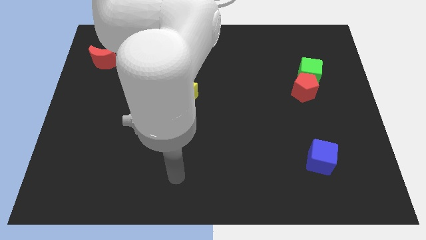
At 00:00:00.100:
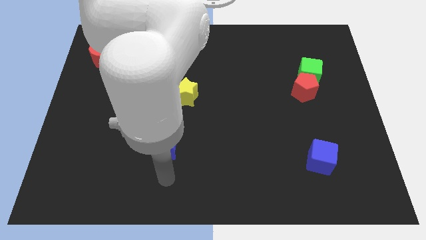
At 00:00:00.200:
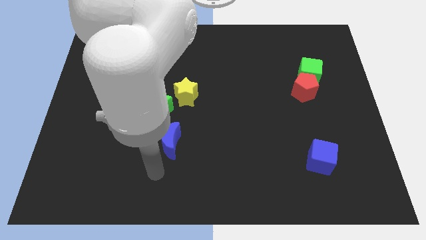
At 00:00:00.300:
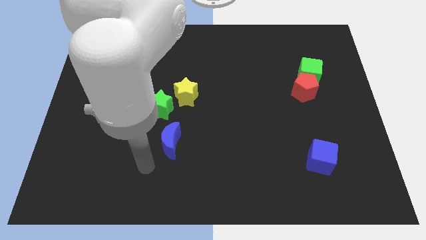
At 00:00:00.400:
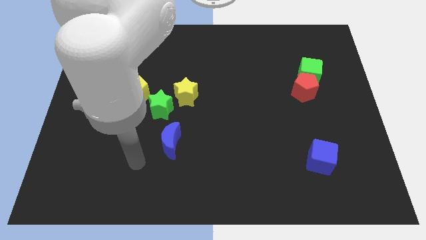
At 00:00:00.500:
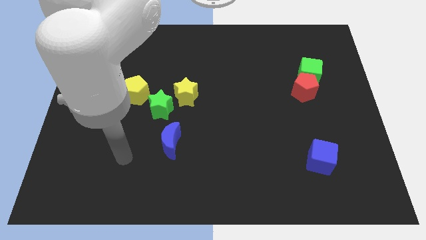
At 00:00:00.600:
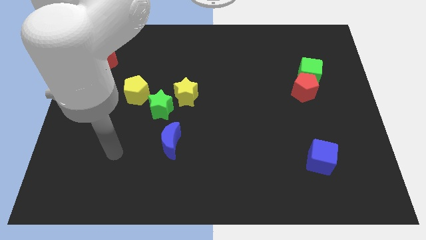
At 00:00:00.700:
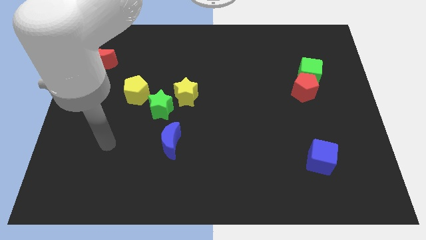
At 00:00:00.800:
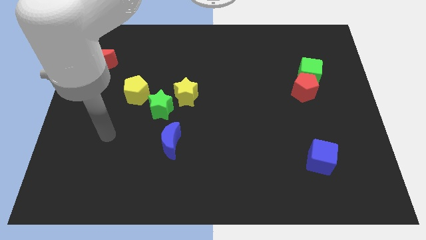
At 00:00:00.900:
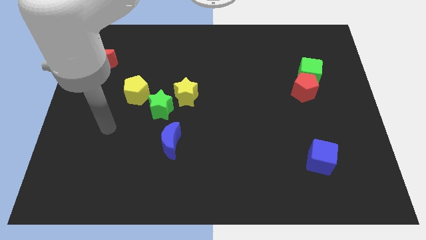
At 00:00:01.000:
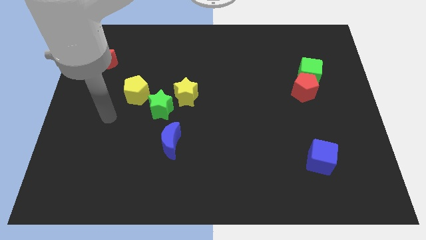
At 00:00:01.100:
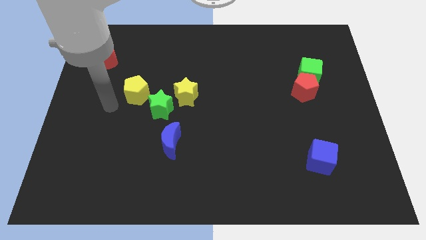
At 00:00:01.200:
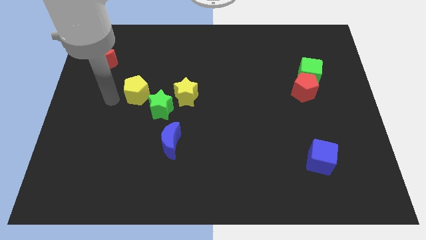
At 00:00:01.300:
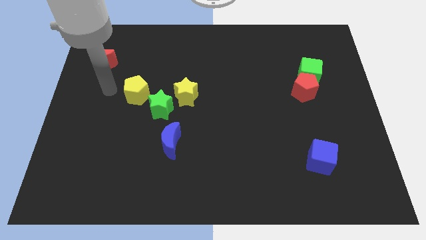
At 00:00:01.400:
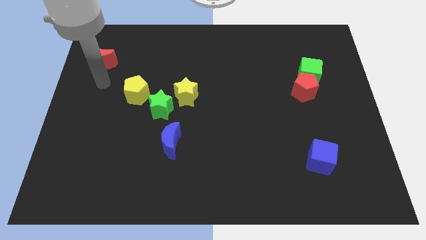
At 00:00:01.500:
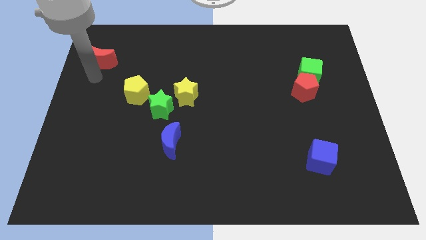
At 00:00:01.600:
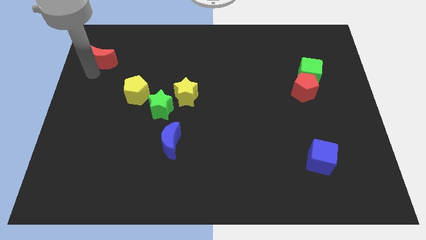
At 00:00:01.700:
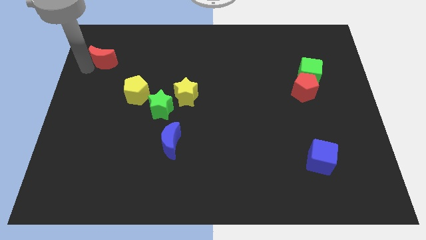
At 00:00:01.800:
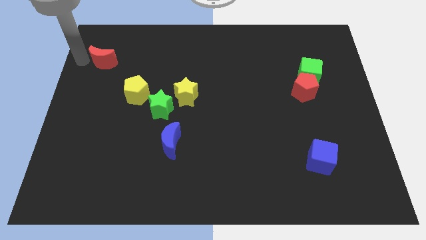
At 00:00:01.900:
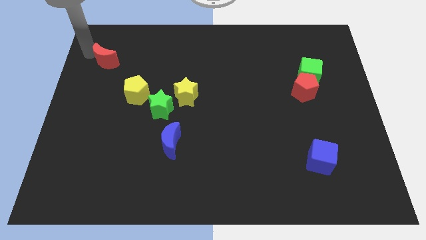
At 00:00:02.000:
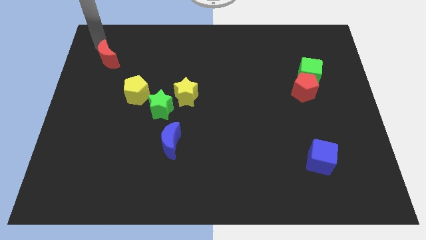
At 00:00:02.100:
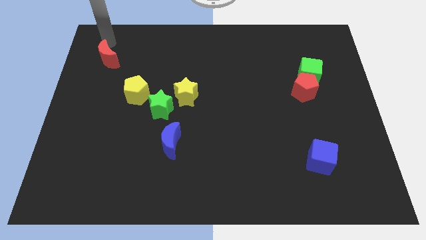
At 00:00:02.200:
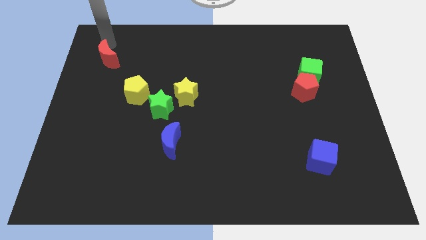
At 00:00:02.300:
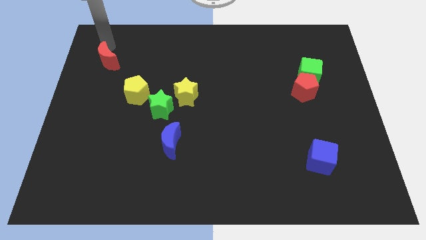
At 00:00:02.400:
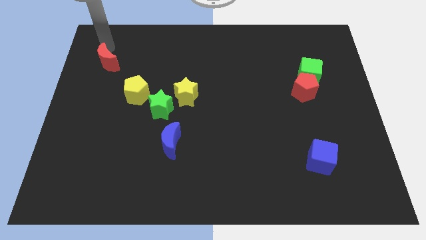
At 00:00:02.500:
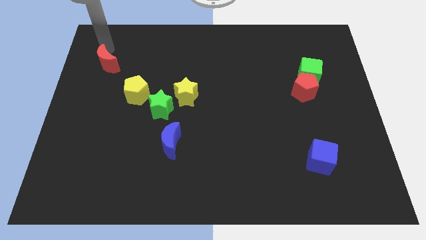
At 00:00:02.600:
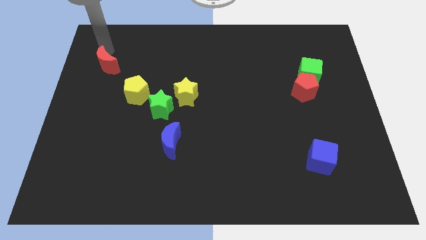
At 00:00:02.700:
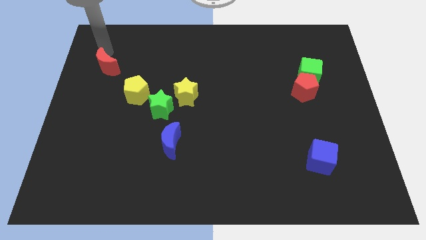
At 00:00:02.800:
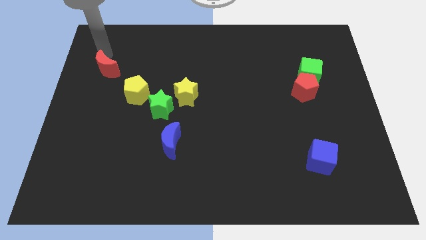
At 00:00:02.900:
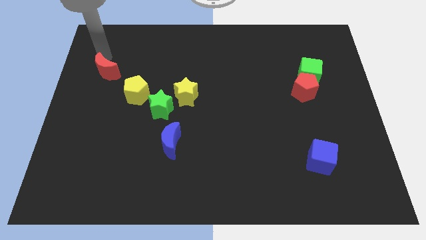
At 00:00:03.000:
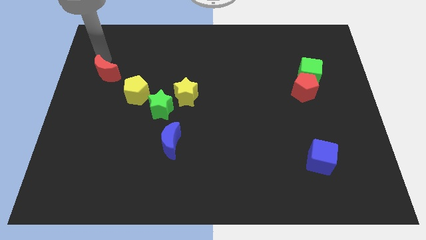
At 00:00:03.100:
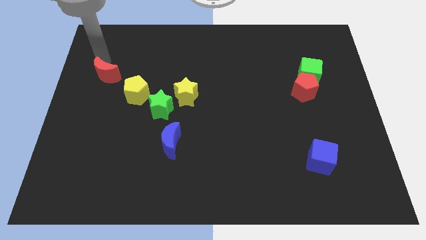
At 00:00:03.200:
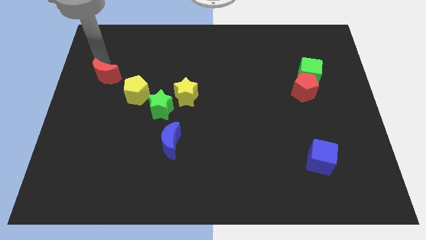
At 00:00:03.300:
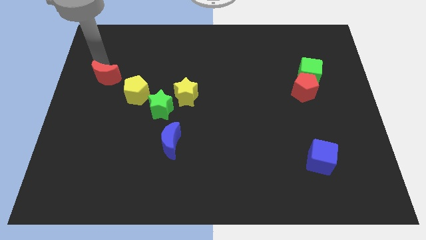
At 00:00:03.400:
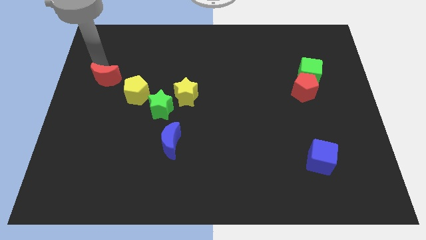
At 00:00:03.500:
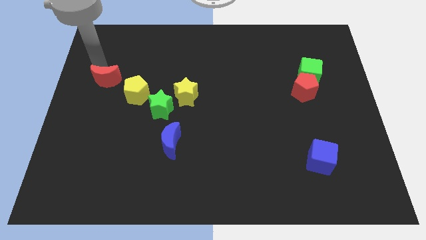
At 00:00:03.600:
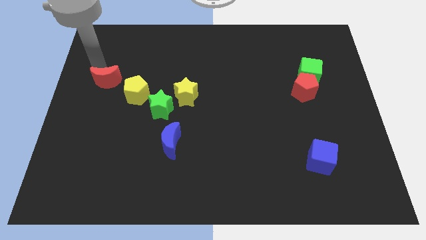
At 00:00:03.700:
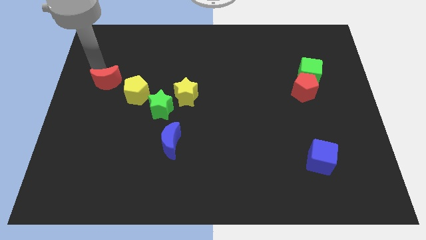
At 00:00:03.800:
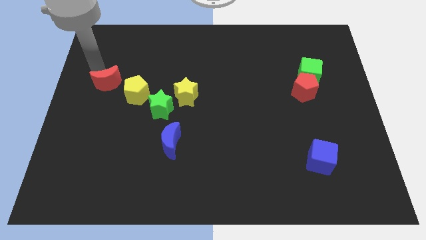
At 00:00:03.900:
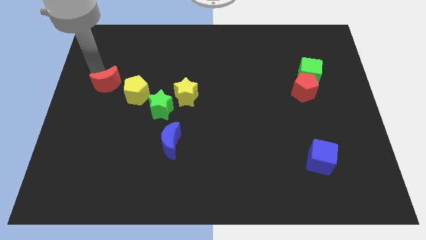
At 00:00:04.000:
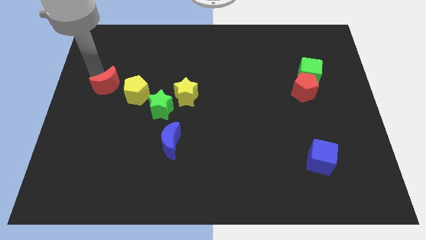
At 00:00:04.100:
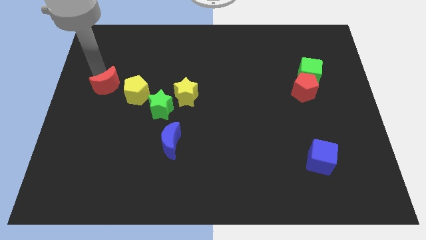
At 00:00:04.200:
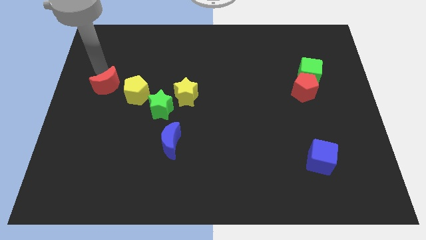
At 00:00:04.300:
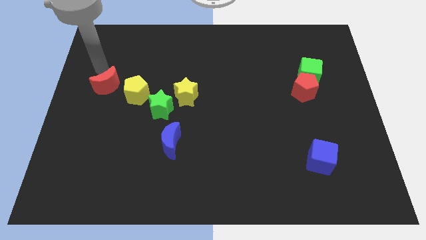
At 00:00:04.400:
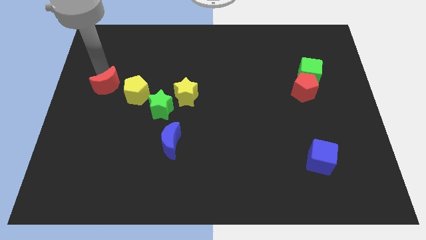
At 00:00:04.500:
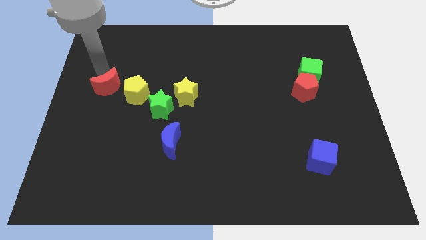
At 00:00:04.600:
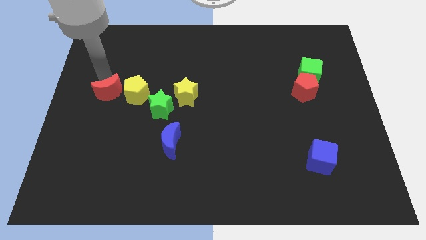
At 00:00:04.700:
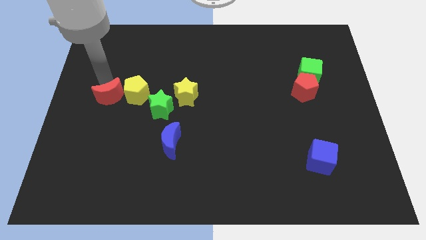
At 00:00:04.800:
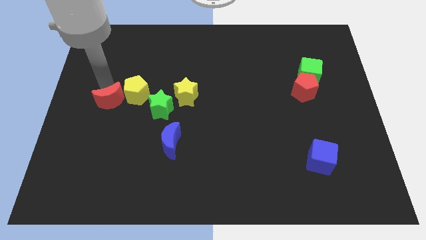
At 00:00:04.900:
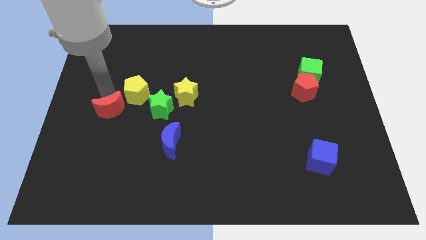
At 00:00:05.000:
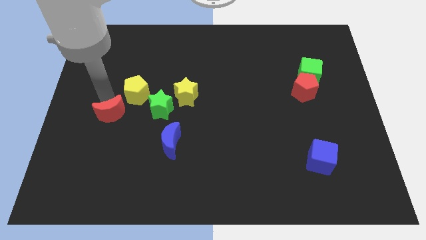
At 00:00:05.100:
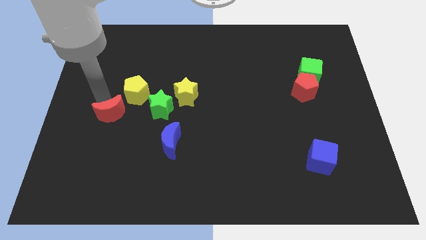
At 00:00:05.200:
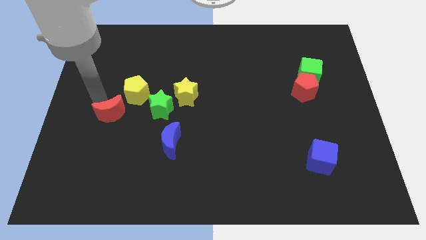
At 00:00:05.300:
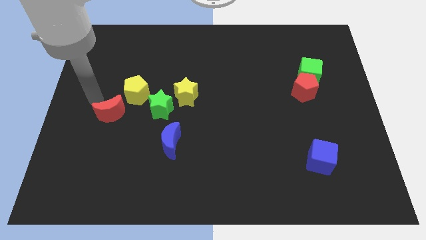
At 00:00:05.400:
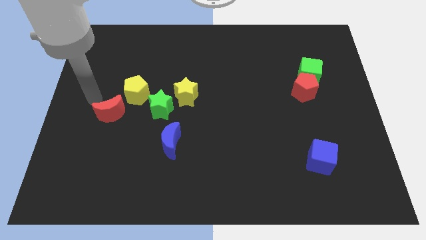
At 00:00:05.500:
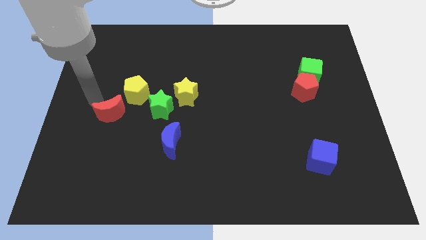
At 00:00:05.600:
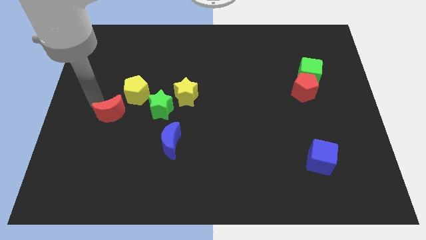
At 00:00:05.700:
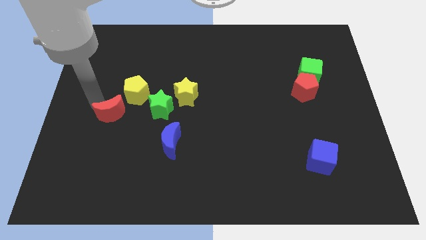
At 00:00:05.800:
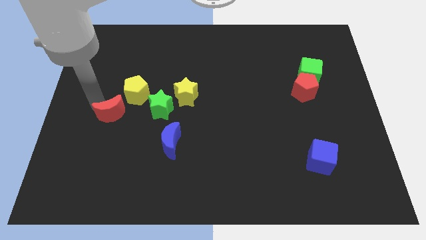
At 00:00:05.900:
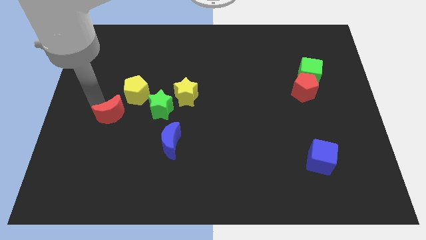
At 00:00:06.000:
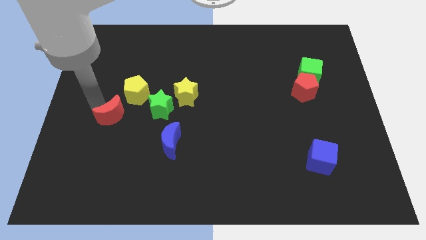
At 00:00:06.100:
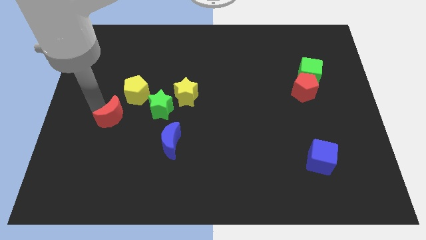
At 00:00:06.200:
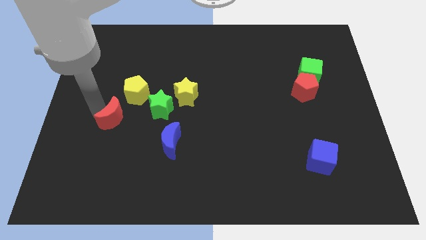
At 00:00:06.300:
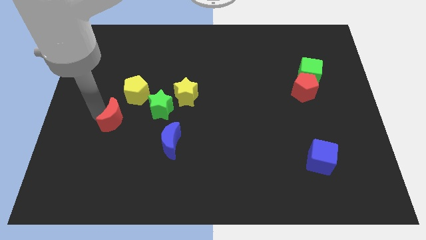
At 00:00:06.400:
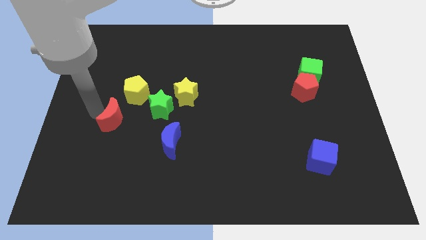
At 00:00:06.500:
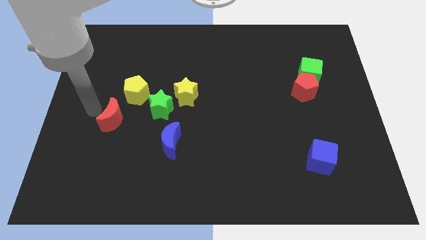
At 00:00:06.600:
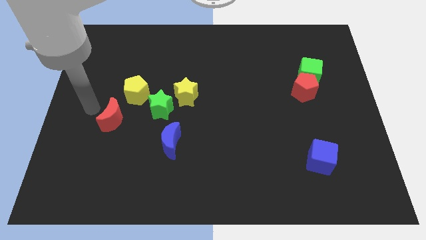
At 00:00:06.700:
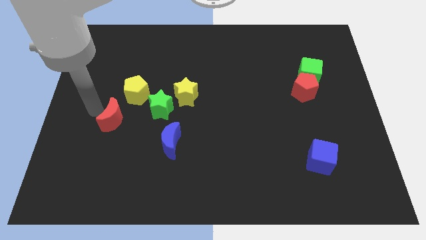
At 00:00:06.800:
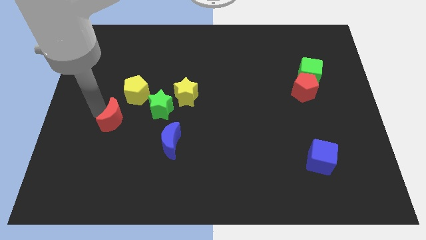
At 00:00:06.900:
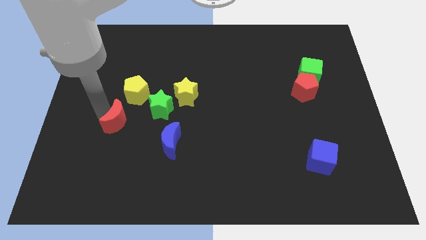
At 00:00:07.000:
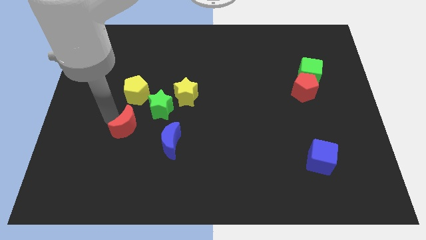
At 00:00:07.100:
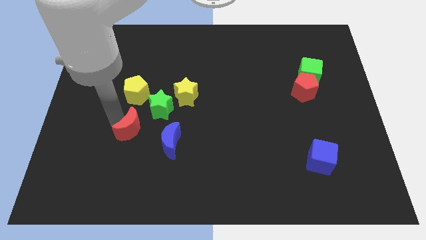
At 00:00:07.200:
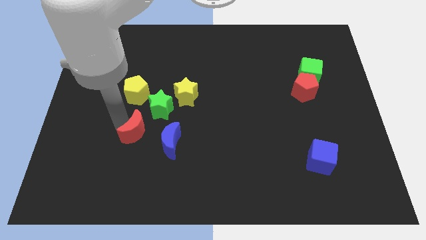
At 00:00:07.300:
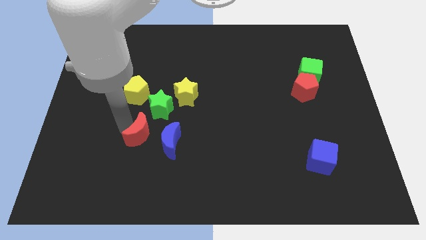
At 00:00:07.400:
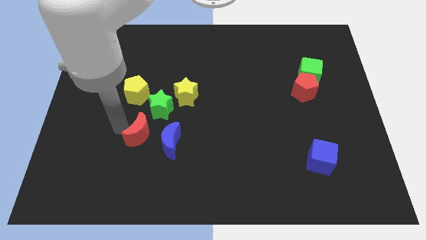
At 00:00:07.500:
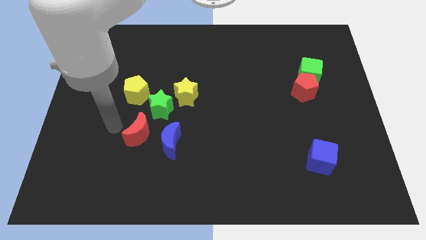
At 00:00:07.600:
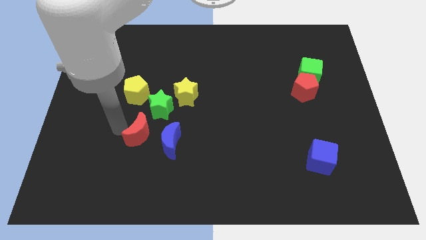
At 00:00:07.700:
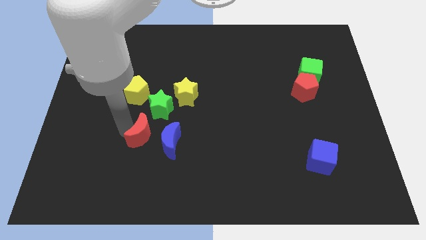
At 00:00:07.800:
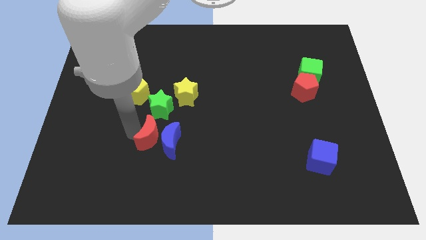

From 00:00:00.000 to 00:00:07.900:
push the red moon towards the blue moon
